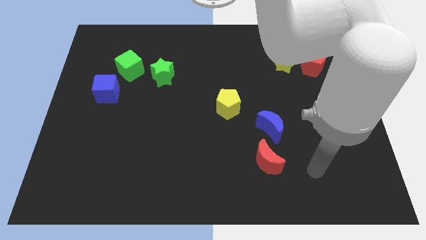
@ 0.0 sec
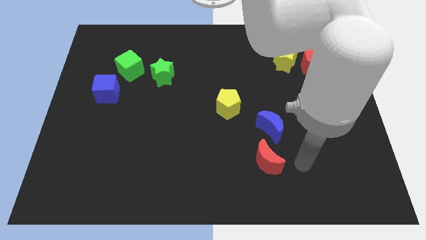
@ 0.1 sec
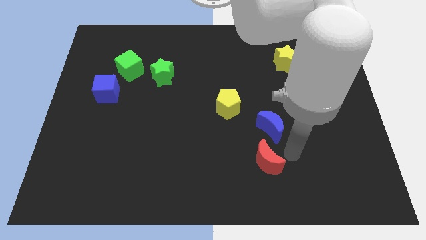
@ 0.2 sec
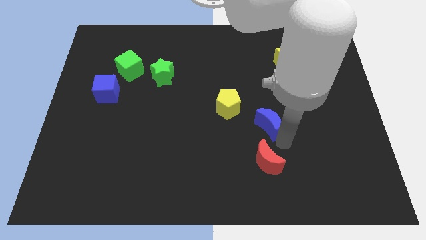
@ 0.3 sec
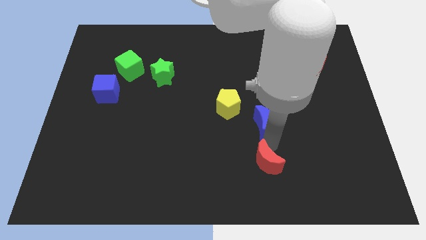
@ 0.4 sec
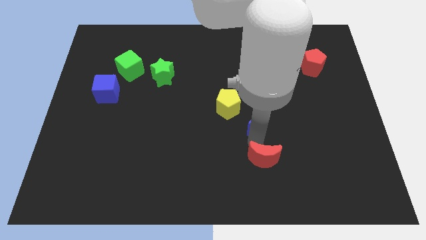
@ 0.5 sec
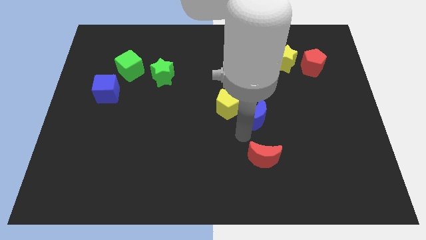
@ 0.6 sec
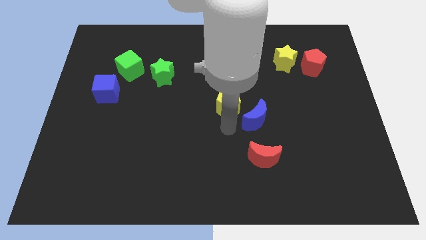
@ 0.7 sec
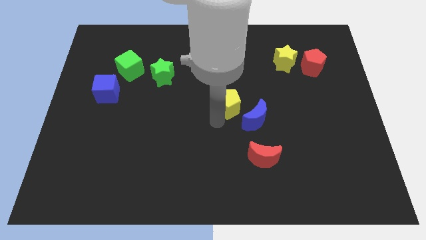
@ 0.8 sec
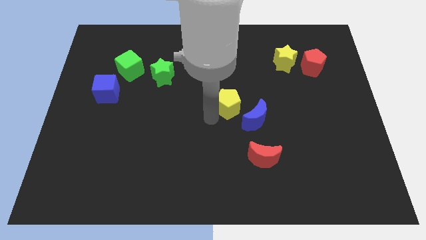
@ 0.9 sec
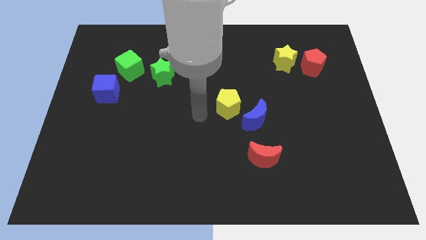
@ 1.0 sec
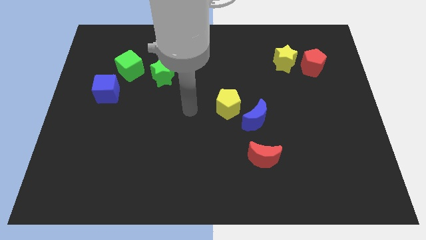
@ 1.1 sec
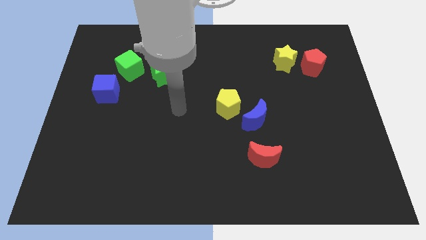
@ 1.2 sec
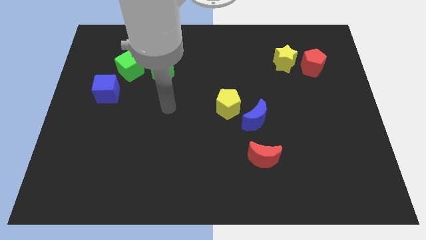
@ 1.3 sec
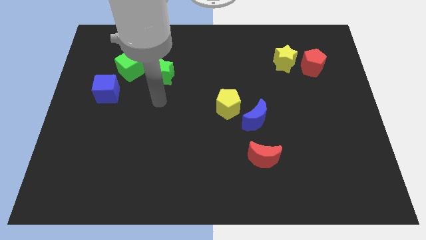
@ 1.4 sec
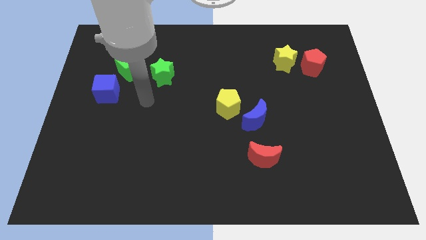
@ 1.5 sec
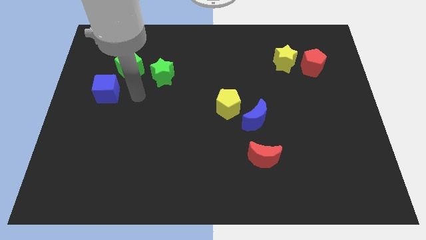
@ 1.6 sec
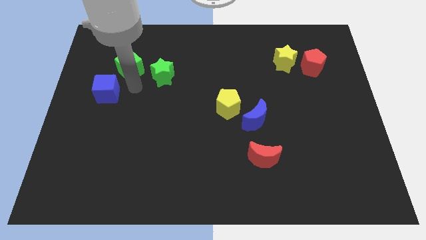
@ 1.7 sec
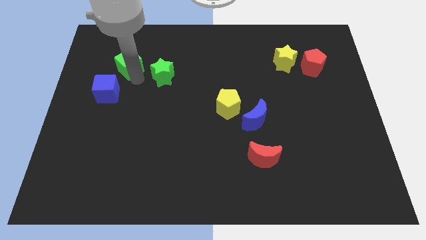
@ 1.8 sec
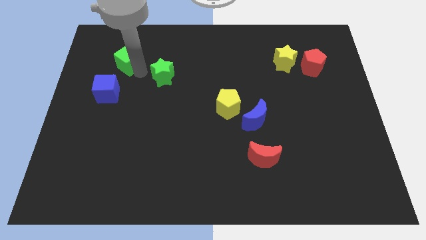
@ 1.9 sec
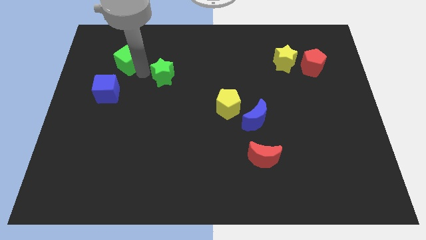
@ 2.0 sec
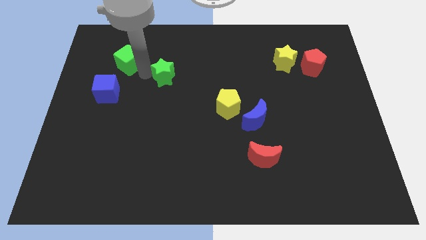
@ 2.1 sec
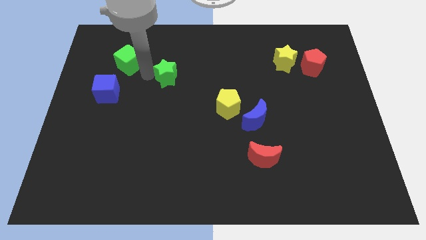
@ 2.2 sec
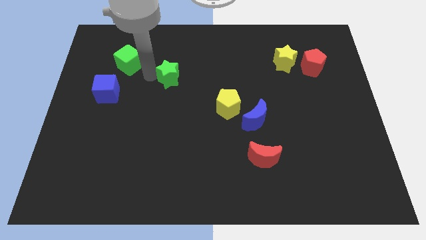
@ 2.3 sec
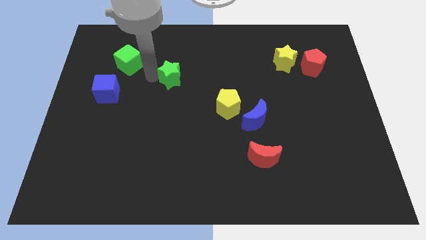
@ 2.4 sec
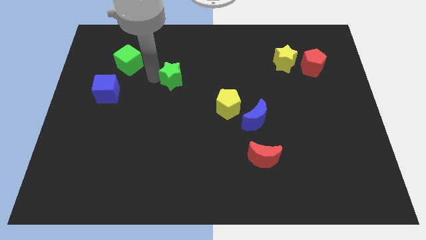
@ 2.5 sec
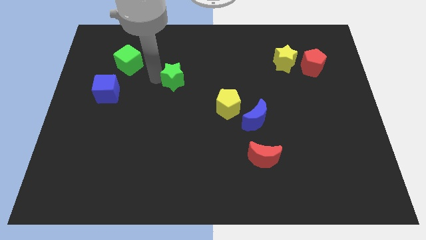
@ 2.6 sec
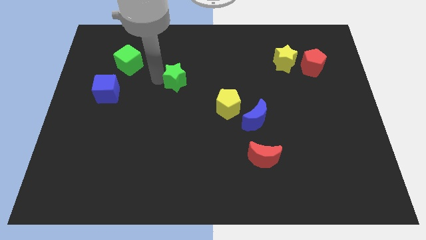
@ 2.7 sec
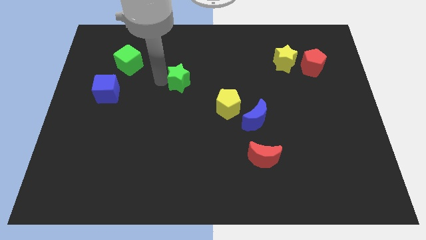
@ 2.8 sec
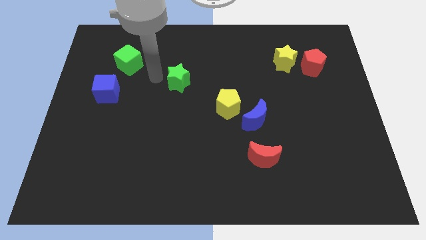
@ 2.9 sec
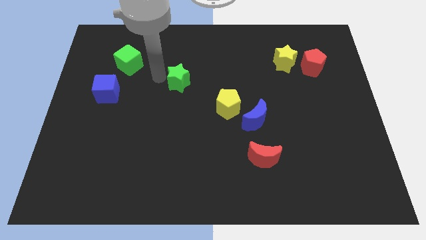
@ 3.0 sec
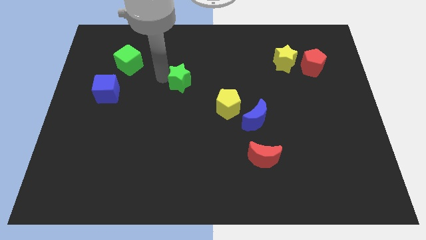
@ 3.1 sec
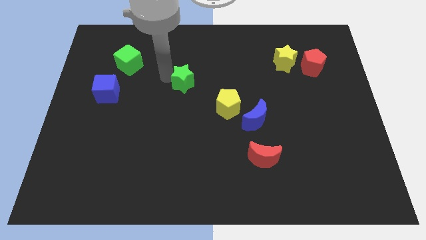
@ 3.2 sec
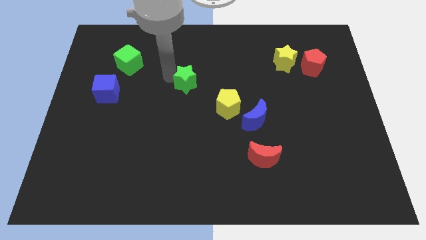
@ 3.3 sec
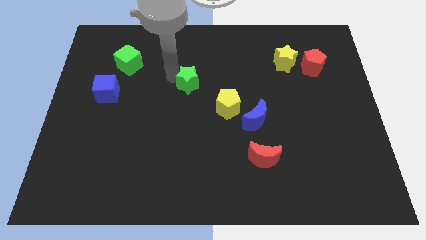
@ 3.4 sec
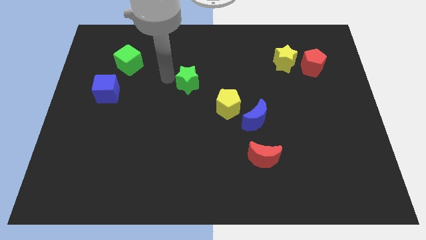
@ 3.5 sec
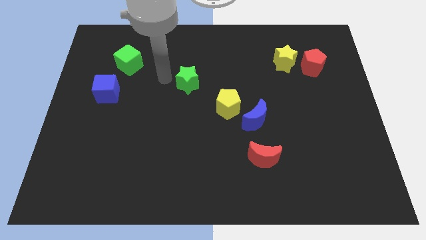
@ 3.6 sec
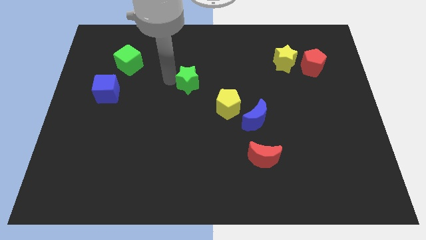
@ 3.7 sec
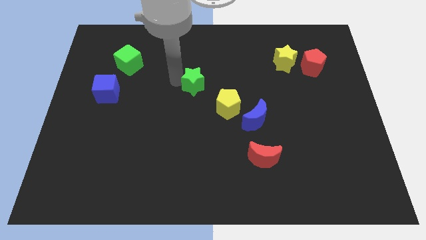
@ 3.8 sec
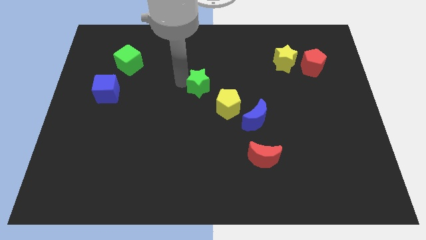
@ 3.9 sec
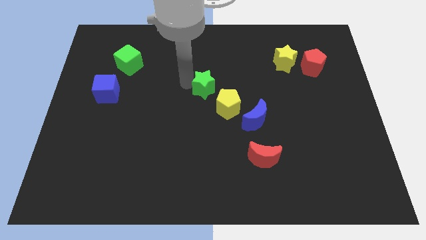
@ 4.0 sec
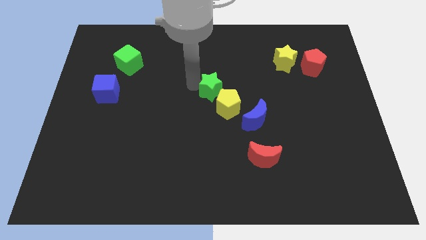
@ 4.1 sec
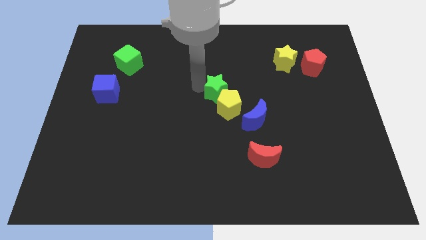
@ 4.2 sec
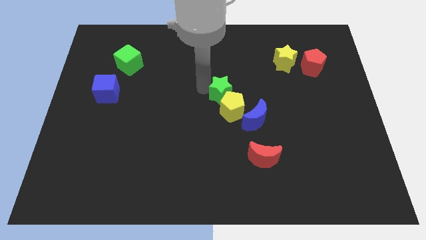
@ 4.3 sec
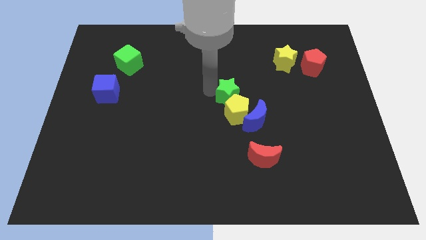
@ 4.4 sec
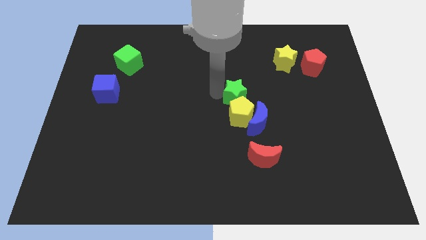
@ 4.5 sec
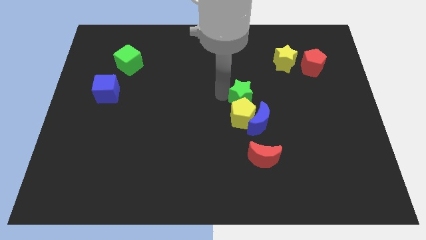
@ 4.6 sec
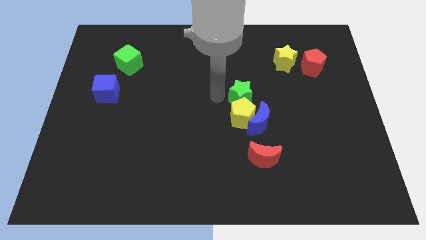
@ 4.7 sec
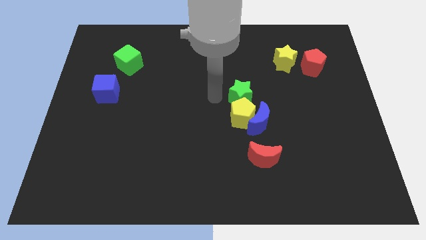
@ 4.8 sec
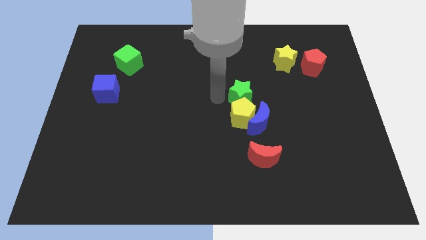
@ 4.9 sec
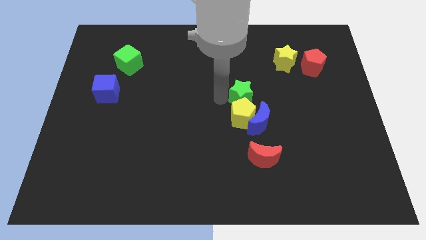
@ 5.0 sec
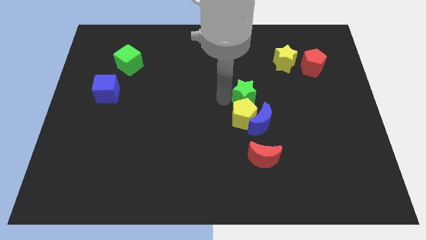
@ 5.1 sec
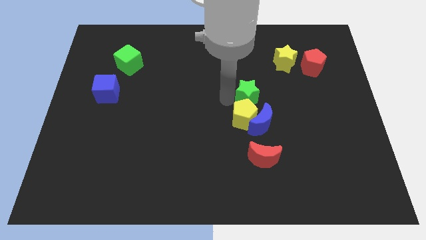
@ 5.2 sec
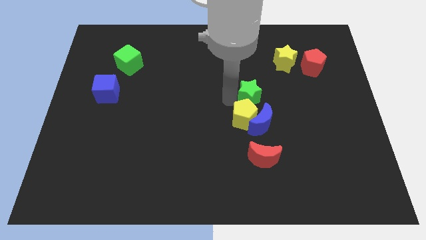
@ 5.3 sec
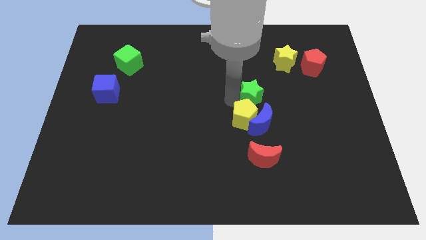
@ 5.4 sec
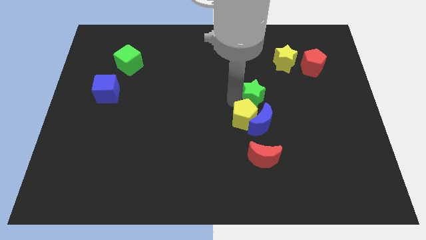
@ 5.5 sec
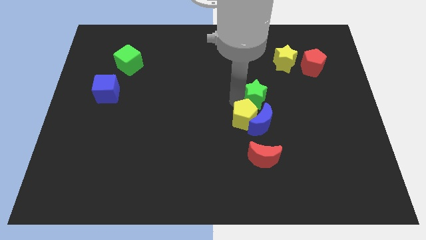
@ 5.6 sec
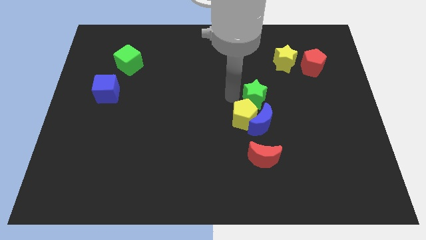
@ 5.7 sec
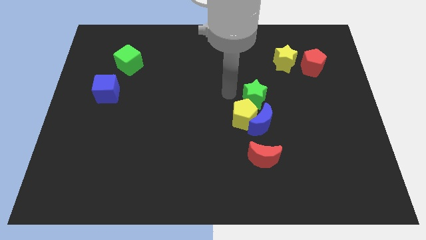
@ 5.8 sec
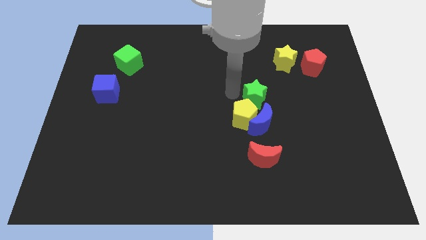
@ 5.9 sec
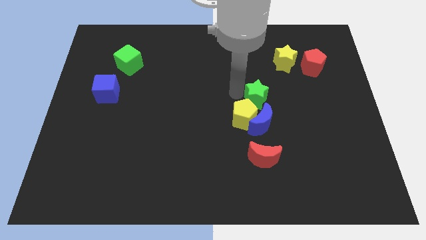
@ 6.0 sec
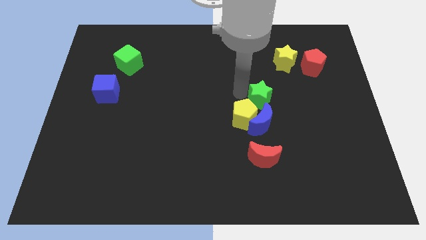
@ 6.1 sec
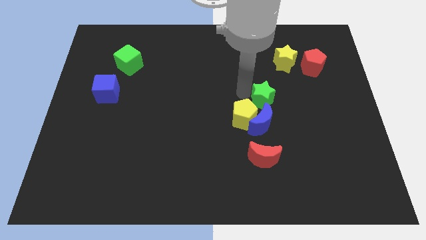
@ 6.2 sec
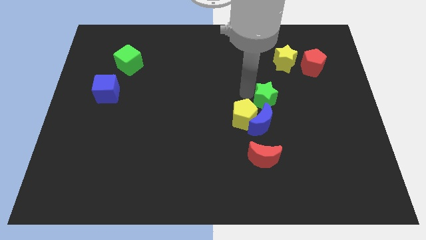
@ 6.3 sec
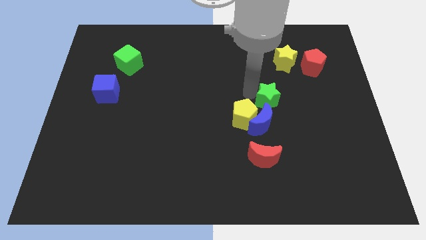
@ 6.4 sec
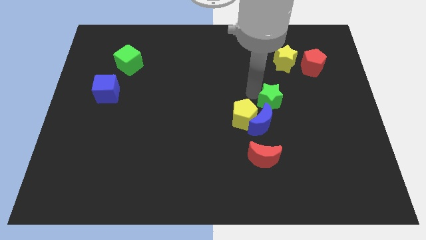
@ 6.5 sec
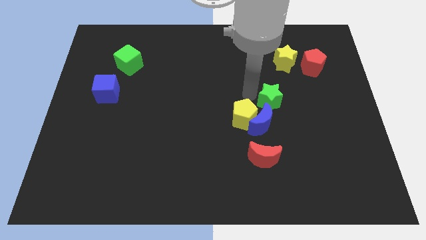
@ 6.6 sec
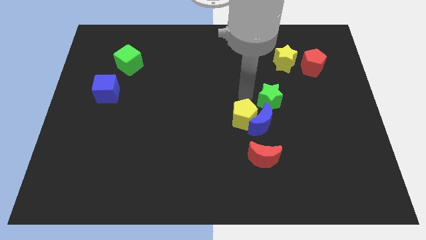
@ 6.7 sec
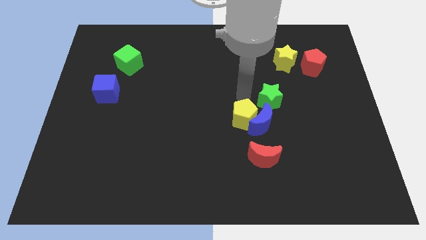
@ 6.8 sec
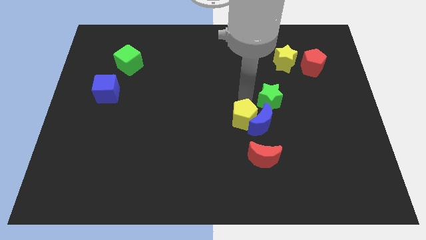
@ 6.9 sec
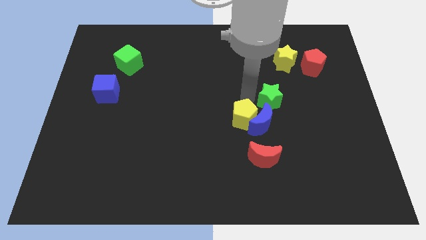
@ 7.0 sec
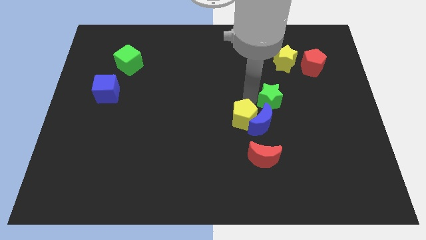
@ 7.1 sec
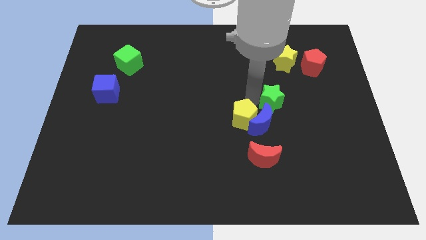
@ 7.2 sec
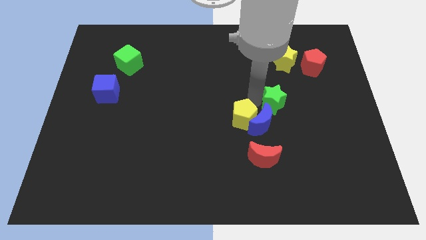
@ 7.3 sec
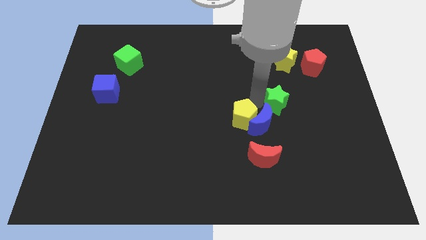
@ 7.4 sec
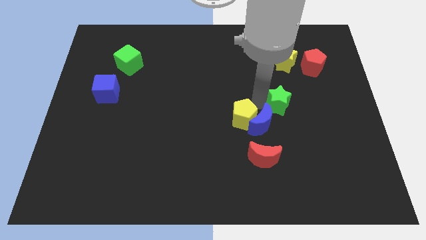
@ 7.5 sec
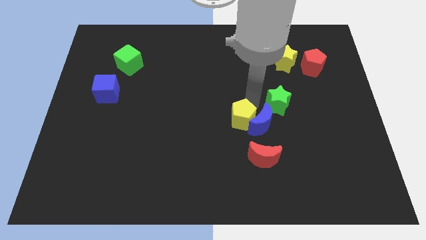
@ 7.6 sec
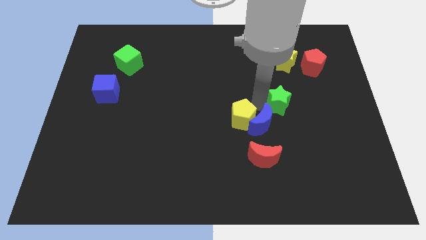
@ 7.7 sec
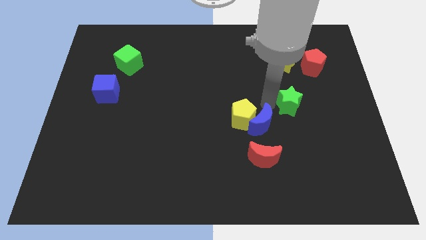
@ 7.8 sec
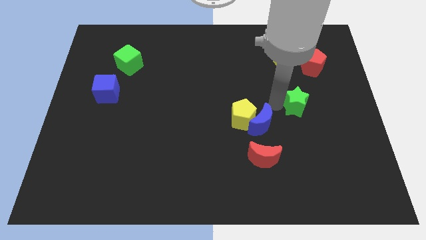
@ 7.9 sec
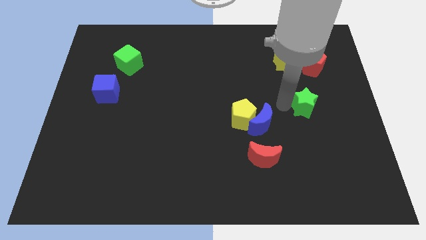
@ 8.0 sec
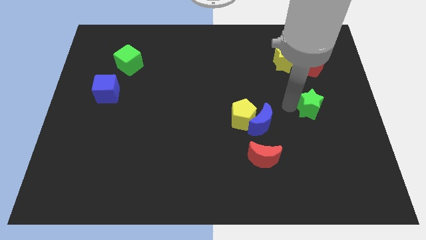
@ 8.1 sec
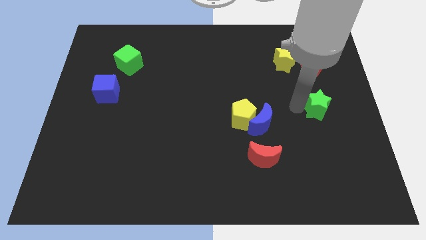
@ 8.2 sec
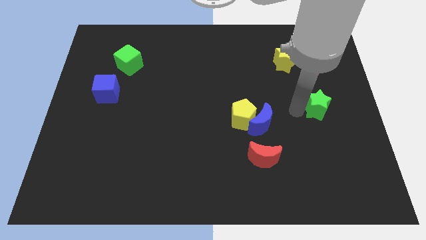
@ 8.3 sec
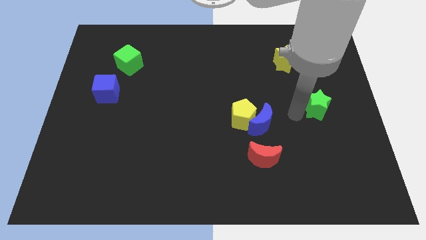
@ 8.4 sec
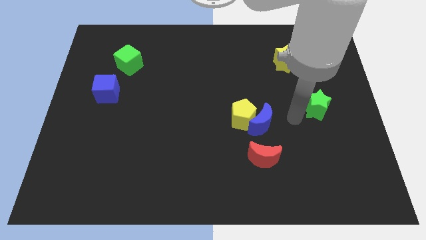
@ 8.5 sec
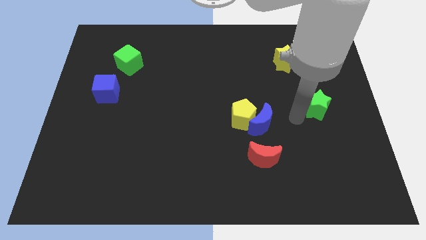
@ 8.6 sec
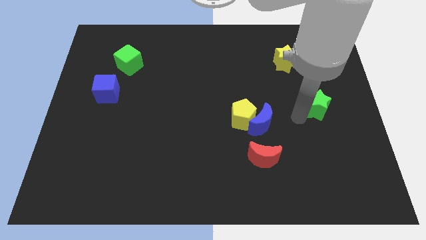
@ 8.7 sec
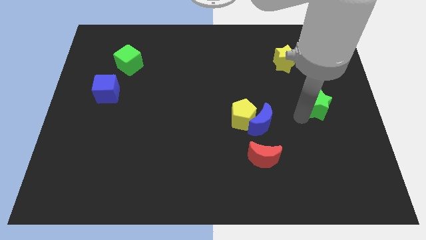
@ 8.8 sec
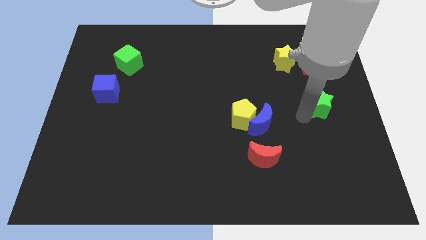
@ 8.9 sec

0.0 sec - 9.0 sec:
push the green star to the right side
